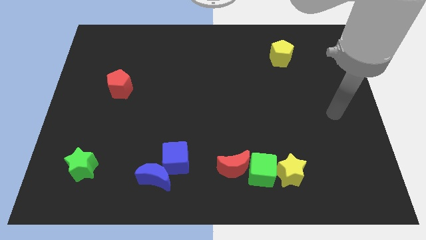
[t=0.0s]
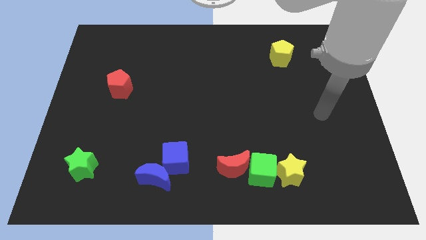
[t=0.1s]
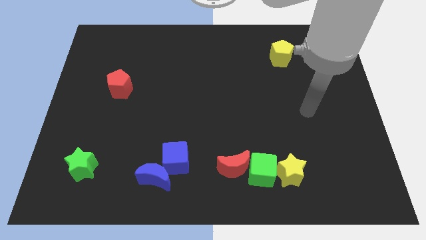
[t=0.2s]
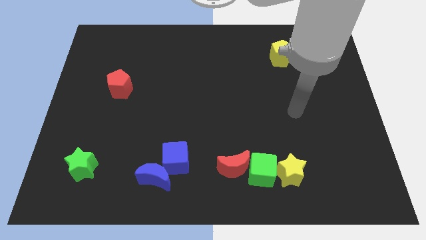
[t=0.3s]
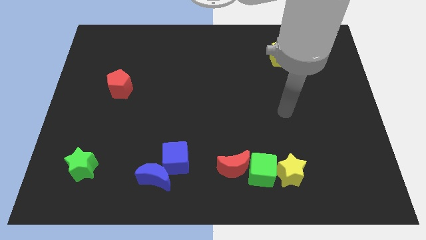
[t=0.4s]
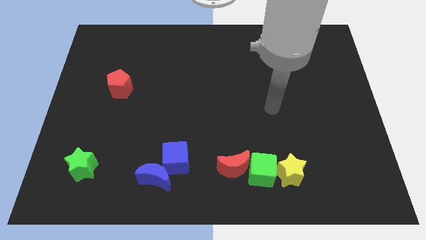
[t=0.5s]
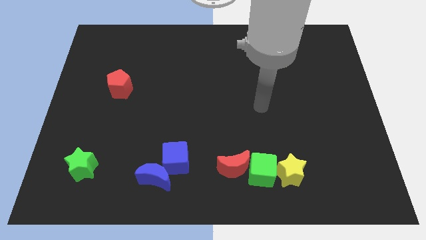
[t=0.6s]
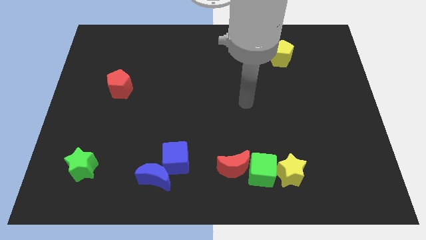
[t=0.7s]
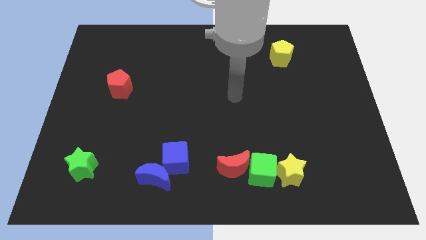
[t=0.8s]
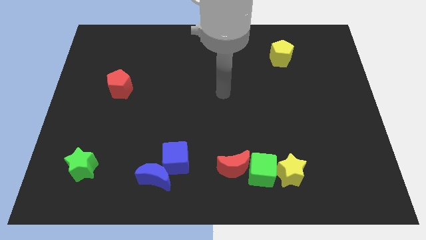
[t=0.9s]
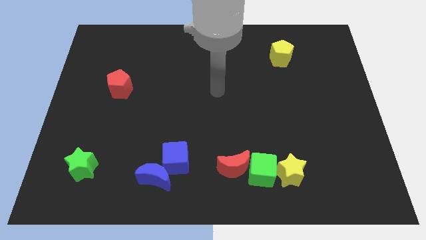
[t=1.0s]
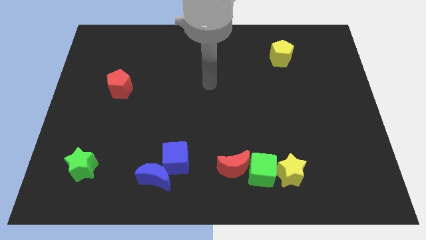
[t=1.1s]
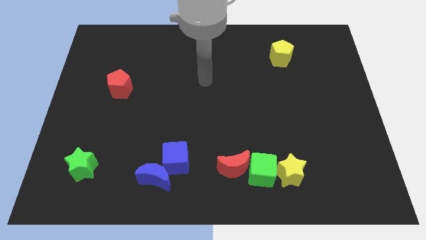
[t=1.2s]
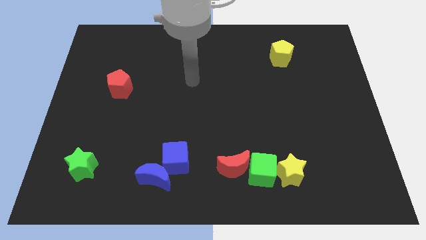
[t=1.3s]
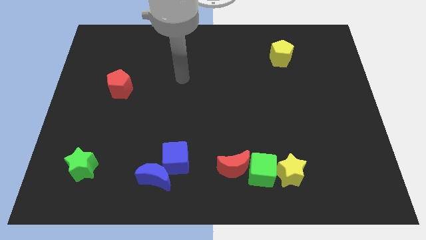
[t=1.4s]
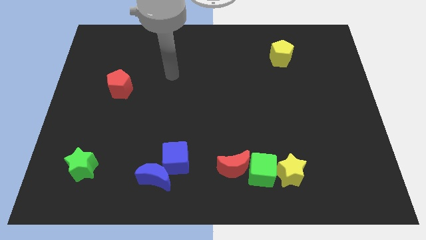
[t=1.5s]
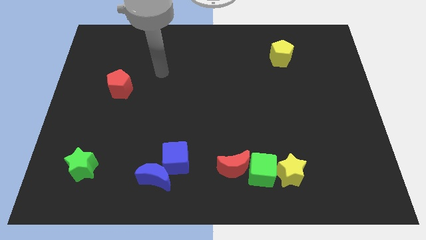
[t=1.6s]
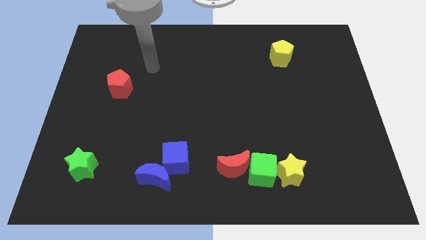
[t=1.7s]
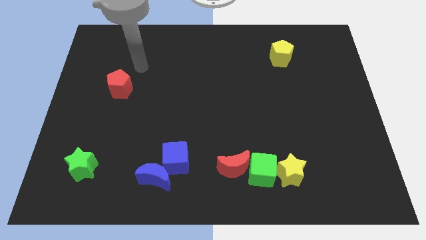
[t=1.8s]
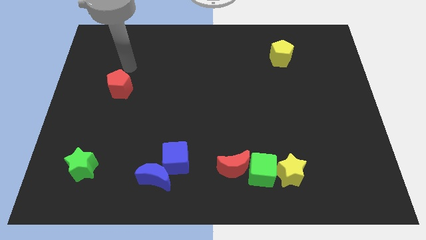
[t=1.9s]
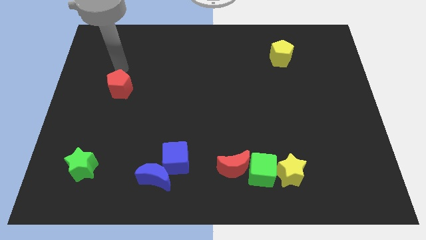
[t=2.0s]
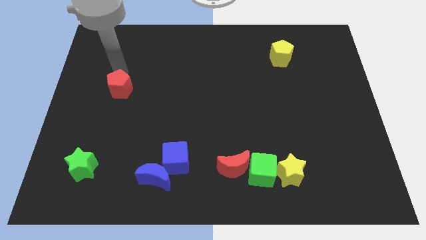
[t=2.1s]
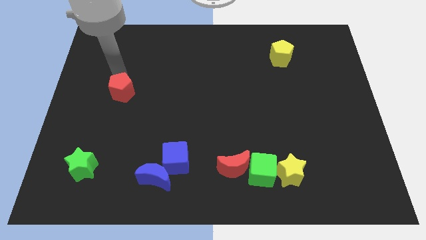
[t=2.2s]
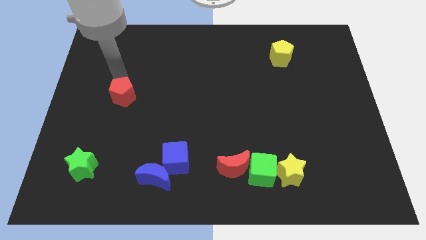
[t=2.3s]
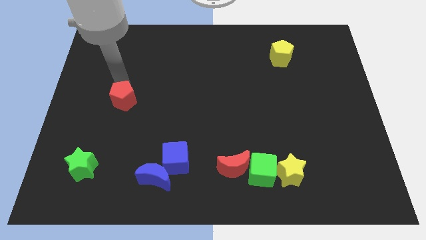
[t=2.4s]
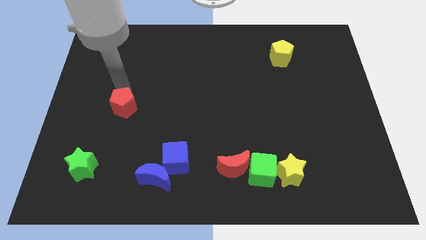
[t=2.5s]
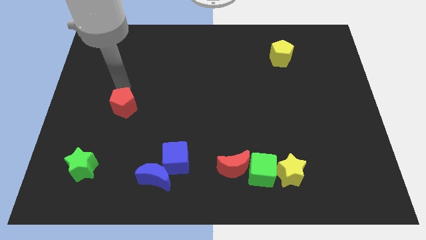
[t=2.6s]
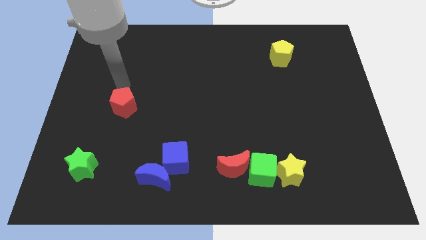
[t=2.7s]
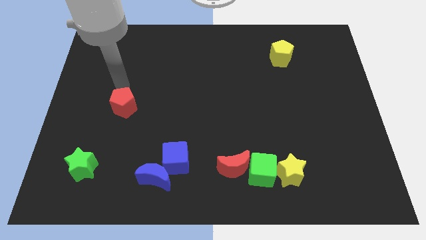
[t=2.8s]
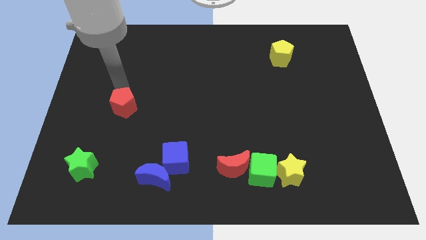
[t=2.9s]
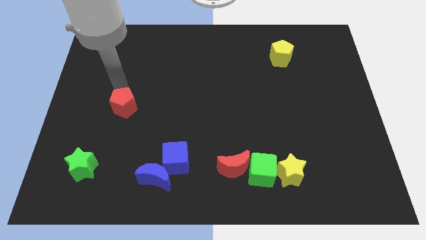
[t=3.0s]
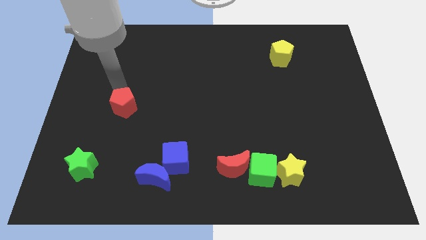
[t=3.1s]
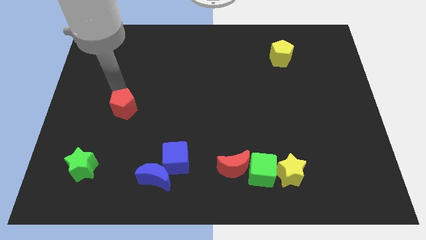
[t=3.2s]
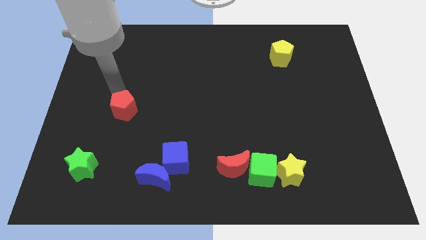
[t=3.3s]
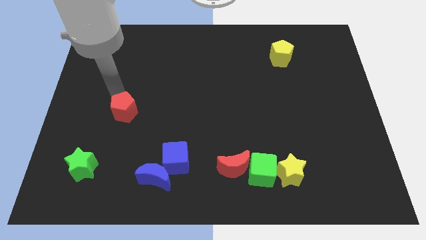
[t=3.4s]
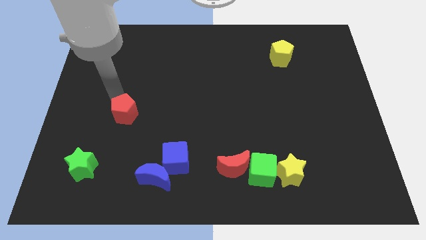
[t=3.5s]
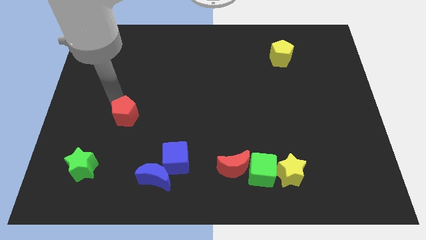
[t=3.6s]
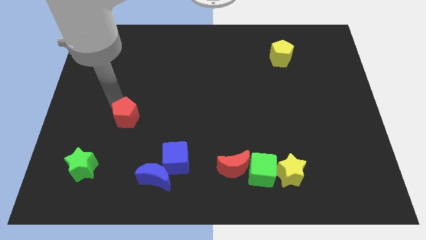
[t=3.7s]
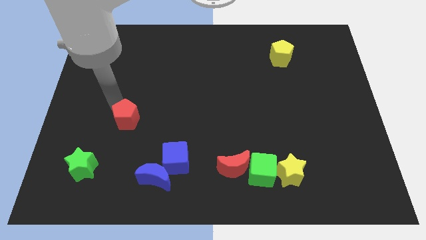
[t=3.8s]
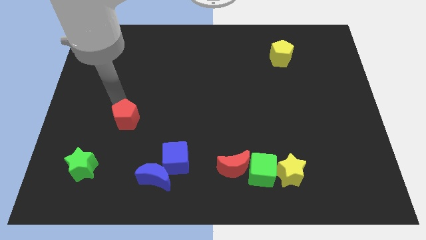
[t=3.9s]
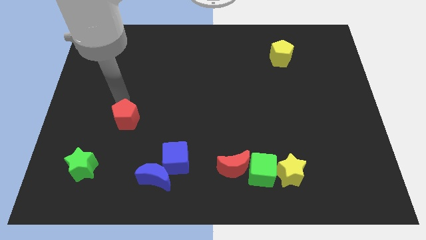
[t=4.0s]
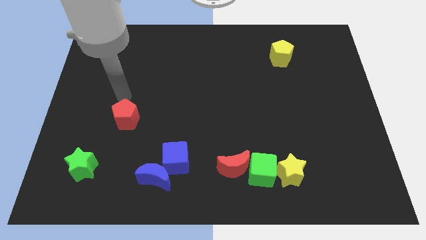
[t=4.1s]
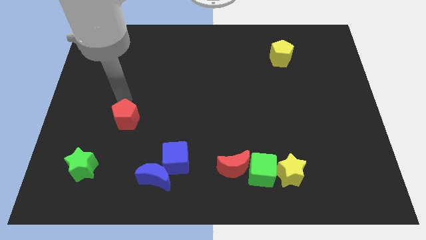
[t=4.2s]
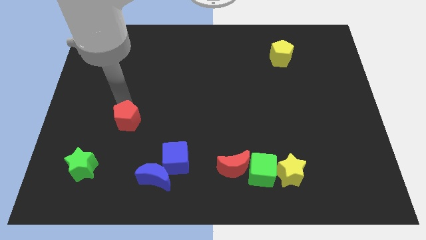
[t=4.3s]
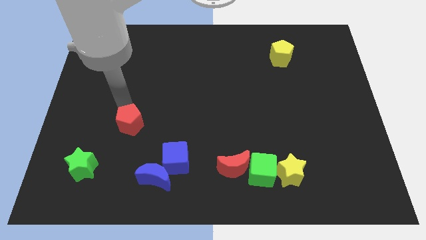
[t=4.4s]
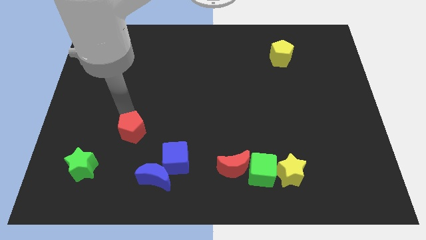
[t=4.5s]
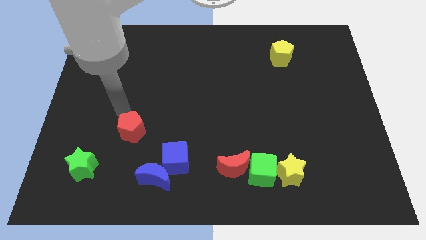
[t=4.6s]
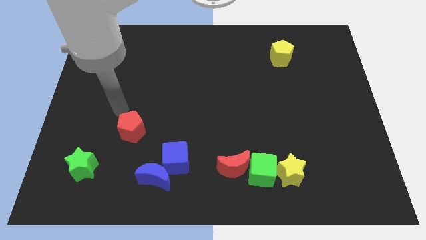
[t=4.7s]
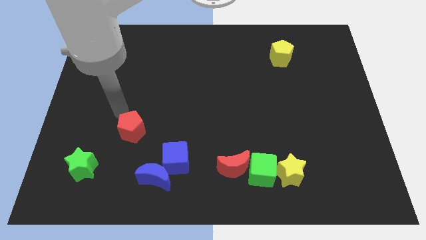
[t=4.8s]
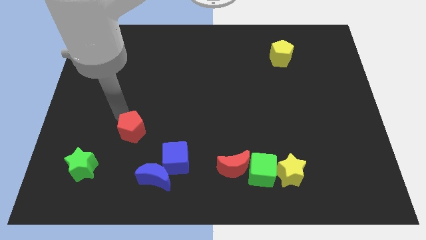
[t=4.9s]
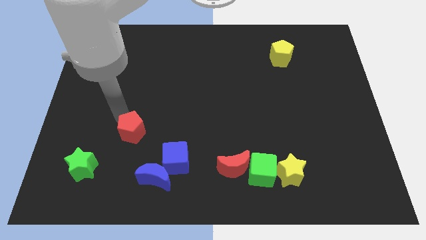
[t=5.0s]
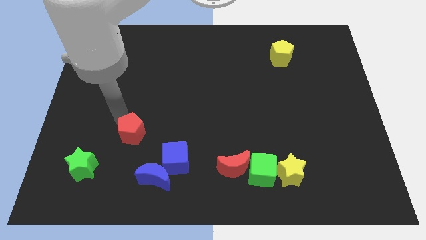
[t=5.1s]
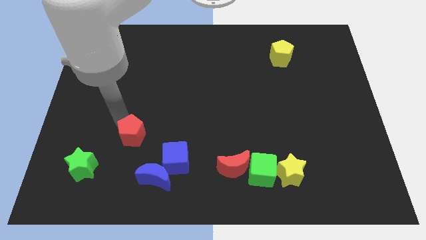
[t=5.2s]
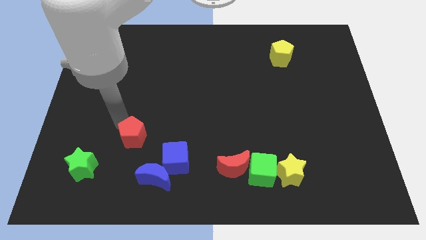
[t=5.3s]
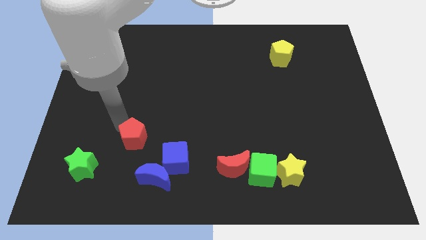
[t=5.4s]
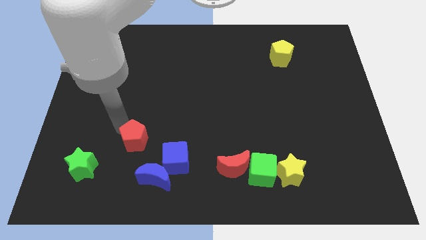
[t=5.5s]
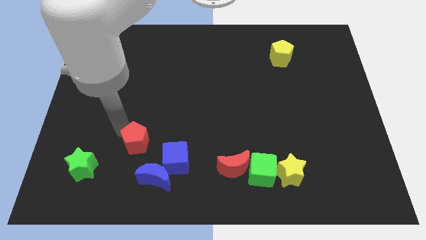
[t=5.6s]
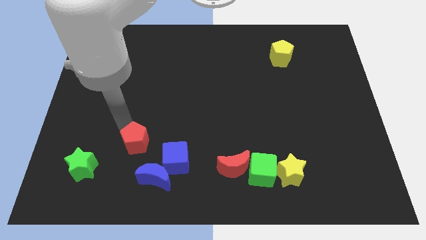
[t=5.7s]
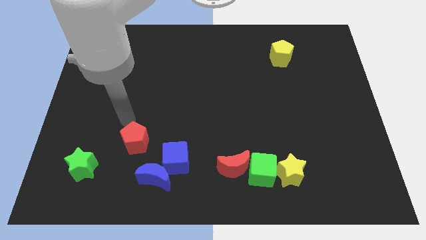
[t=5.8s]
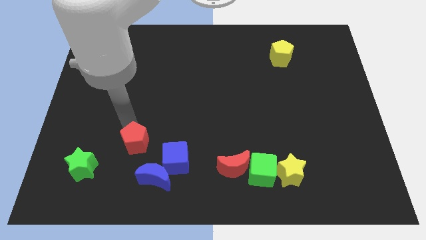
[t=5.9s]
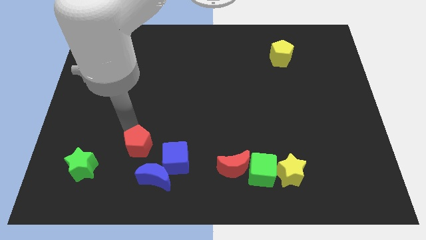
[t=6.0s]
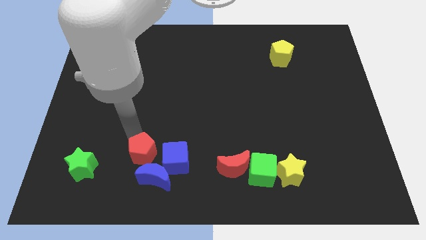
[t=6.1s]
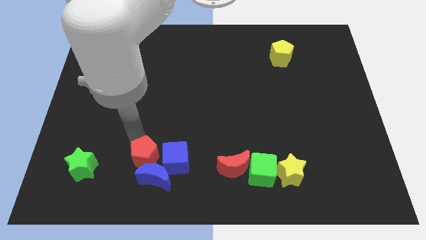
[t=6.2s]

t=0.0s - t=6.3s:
move the red pentagon next to the blue moon

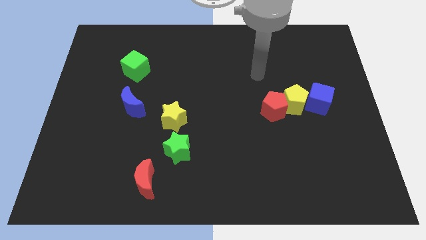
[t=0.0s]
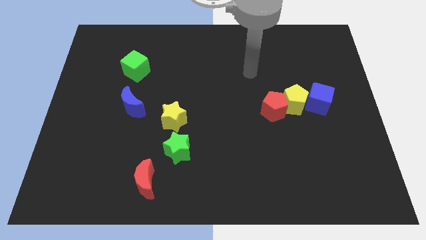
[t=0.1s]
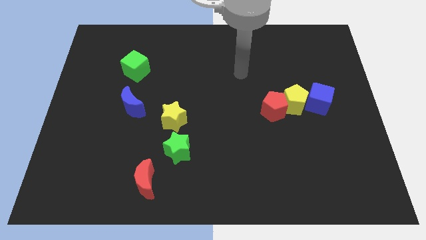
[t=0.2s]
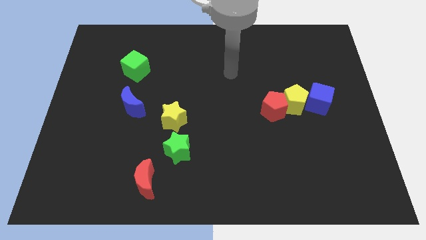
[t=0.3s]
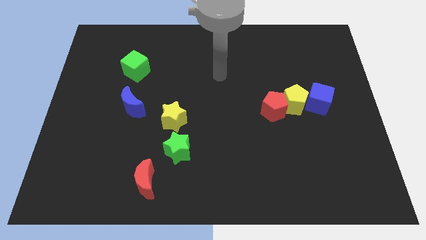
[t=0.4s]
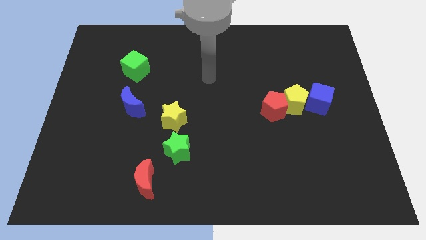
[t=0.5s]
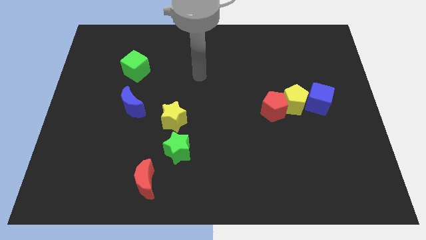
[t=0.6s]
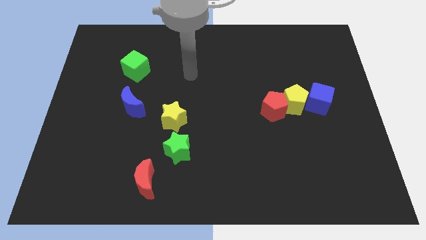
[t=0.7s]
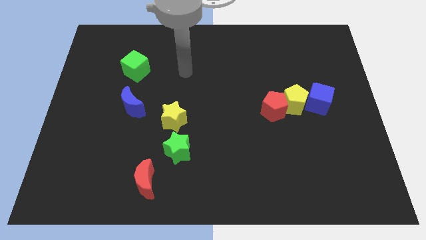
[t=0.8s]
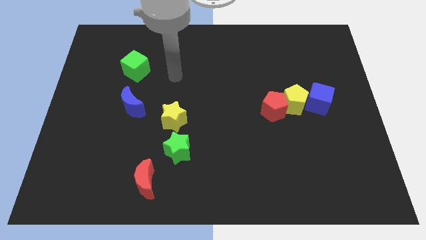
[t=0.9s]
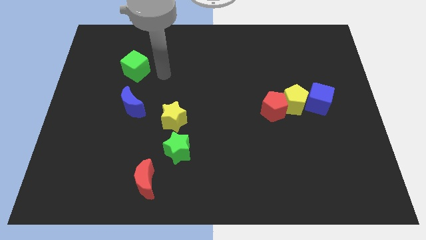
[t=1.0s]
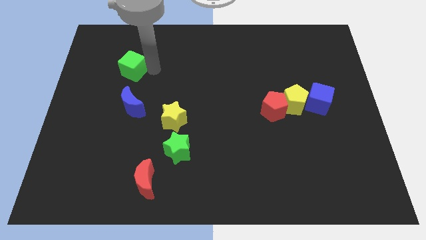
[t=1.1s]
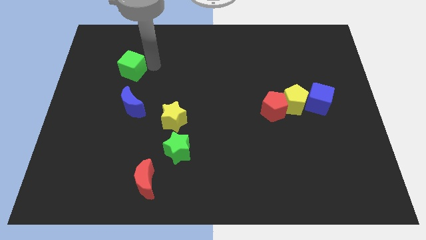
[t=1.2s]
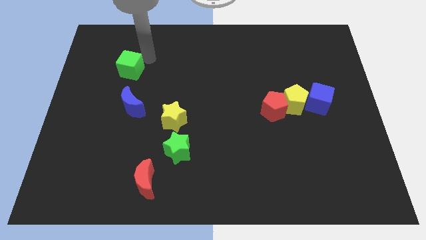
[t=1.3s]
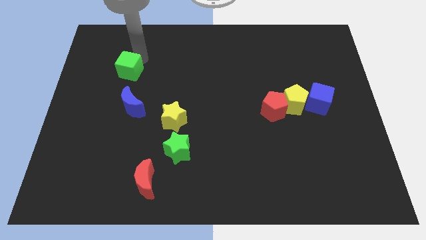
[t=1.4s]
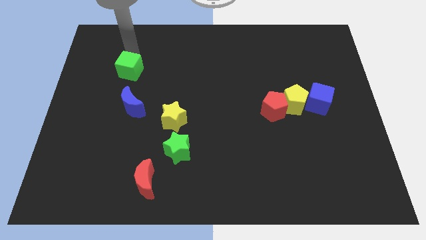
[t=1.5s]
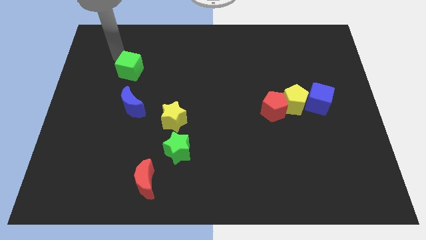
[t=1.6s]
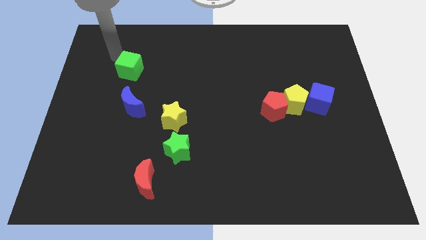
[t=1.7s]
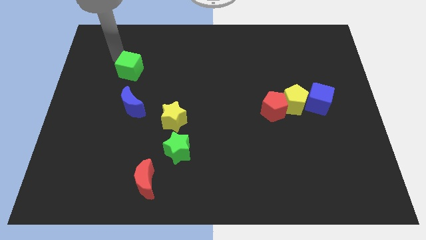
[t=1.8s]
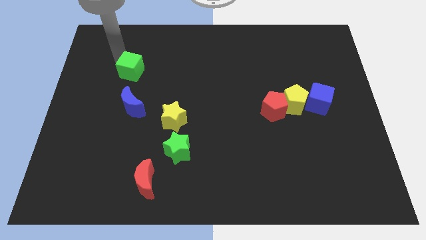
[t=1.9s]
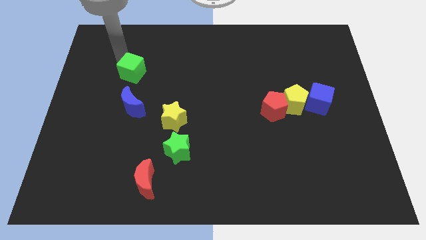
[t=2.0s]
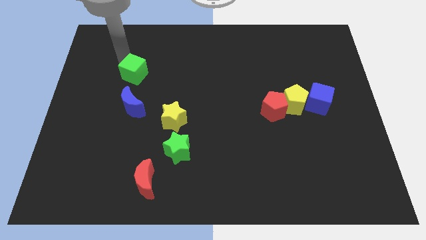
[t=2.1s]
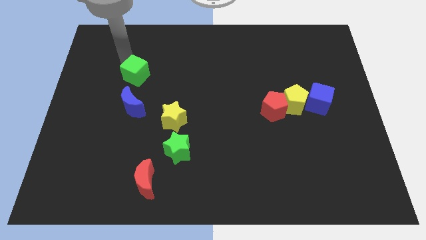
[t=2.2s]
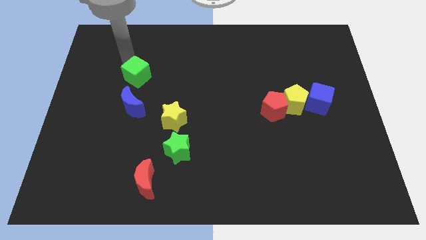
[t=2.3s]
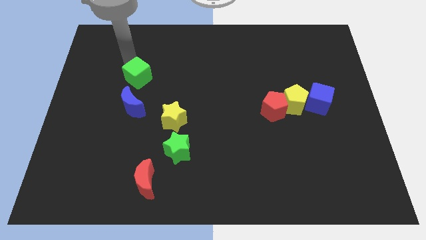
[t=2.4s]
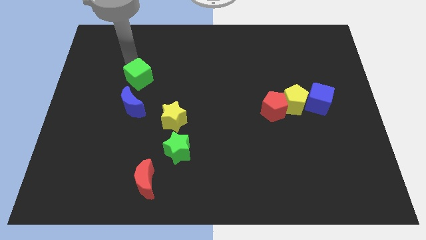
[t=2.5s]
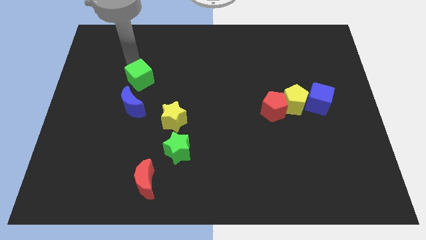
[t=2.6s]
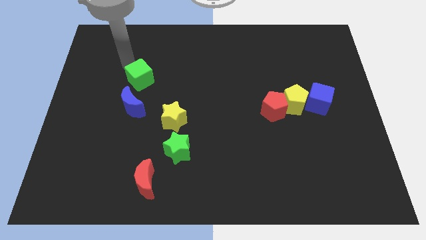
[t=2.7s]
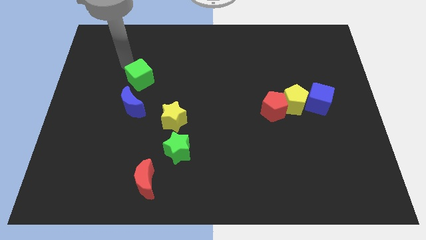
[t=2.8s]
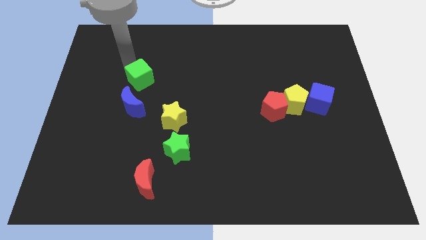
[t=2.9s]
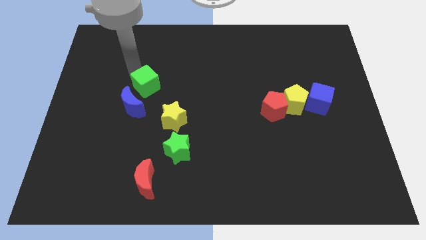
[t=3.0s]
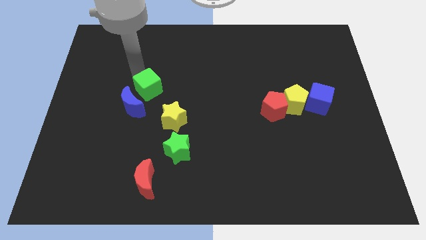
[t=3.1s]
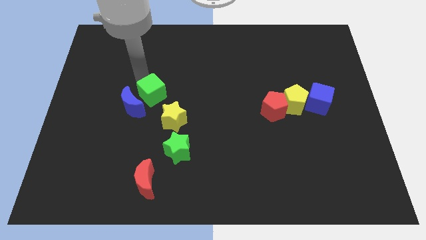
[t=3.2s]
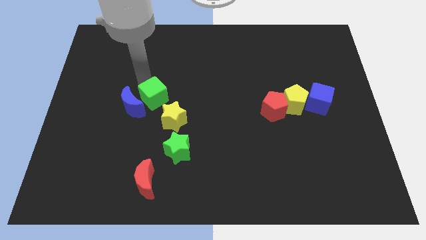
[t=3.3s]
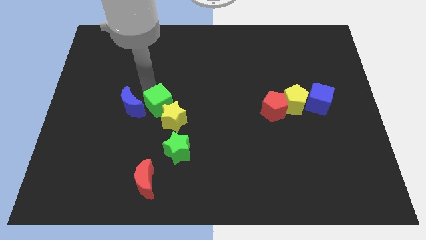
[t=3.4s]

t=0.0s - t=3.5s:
push the green cube close to the yellow star
